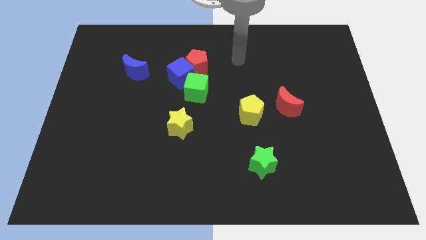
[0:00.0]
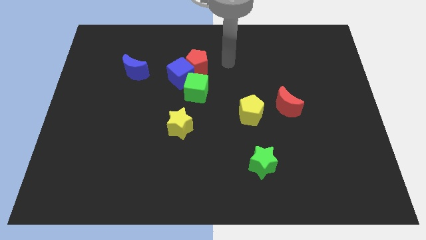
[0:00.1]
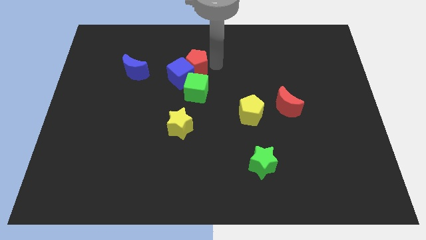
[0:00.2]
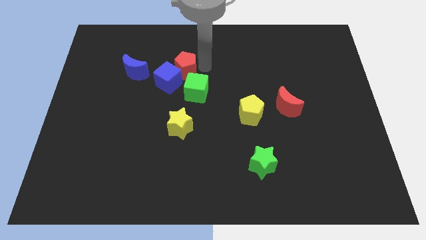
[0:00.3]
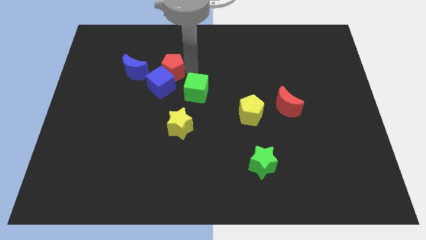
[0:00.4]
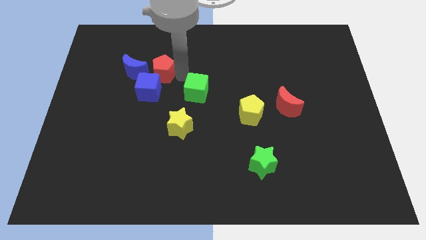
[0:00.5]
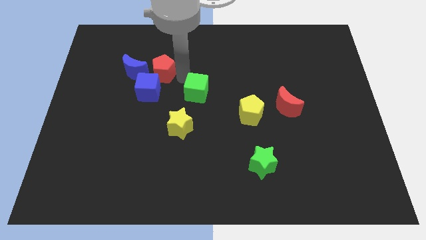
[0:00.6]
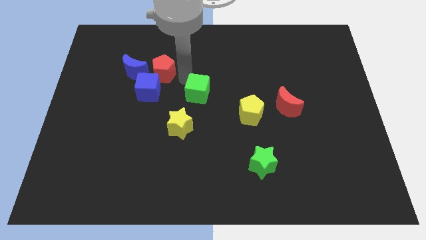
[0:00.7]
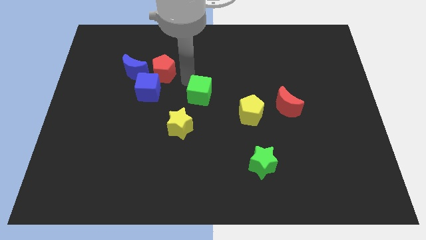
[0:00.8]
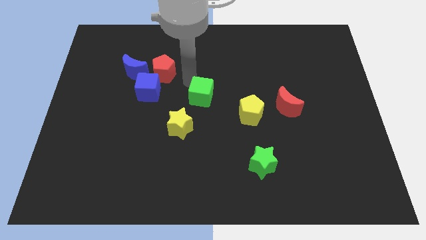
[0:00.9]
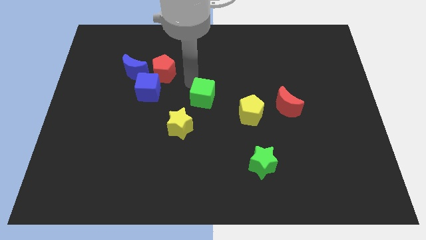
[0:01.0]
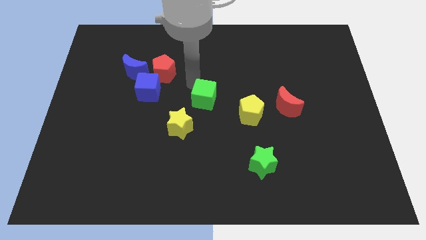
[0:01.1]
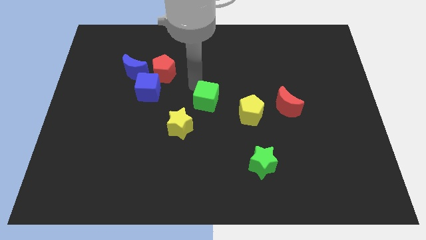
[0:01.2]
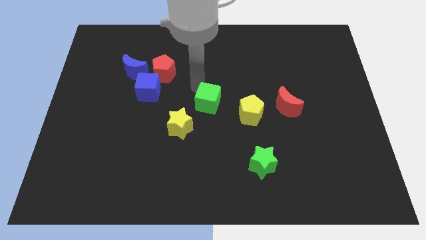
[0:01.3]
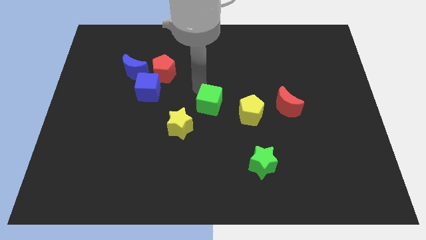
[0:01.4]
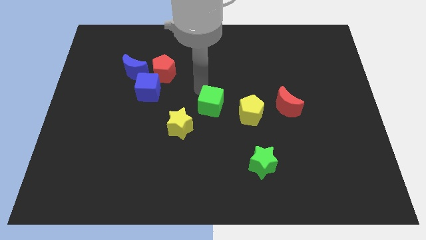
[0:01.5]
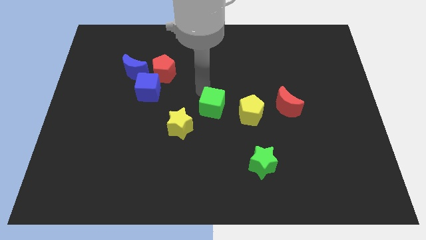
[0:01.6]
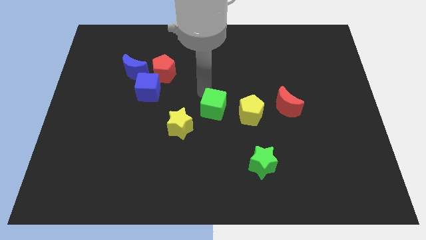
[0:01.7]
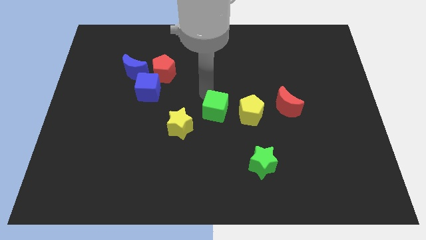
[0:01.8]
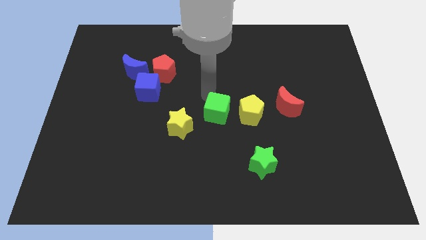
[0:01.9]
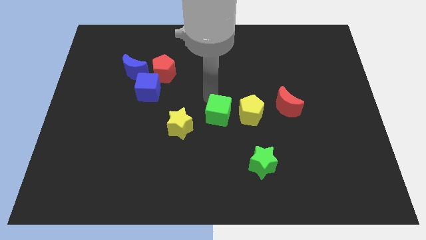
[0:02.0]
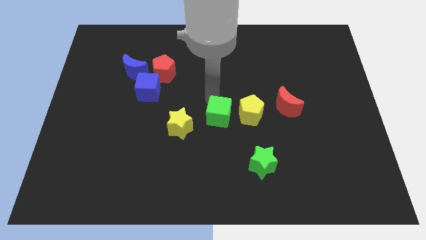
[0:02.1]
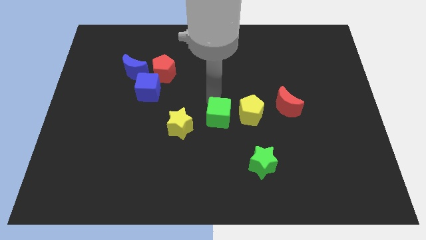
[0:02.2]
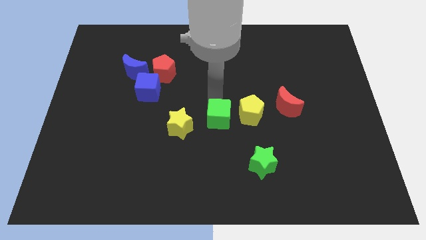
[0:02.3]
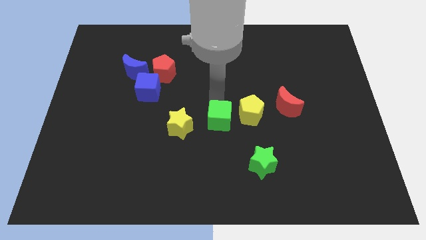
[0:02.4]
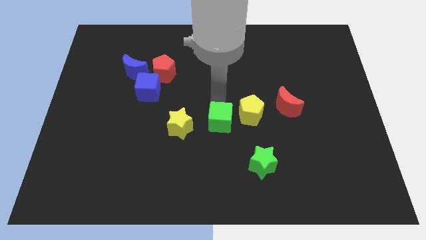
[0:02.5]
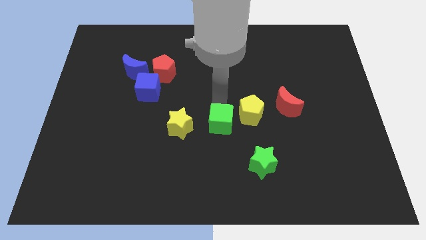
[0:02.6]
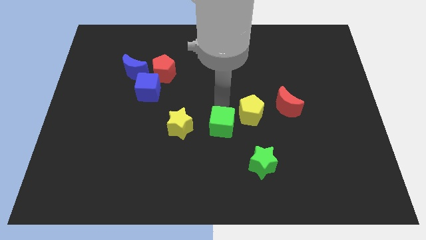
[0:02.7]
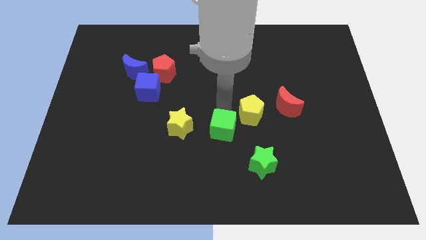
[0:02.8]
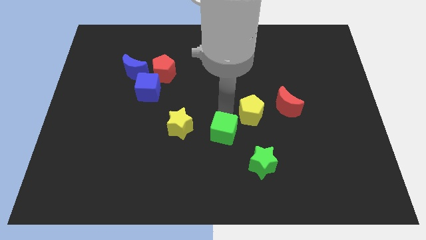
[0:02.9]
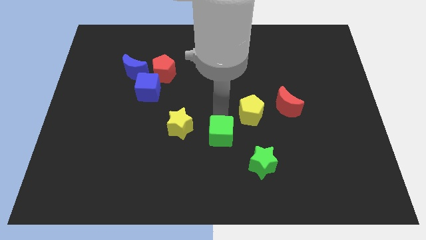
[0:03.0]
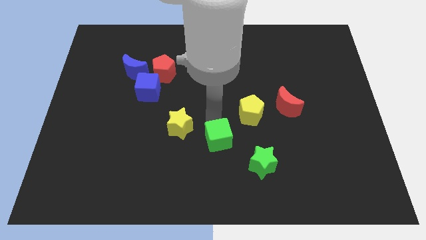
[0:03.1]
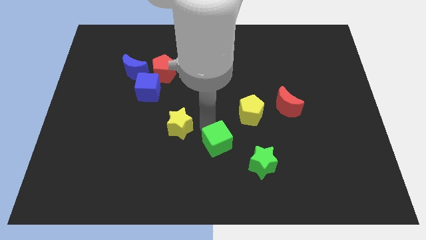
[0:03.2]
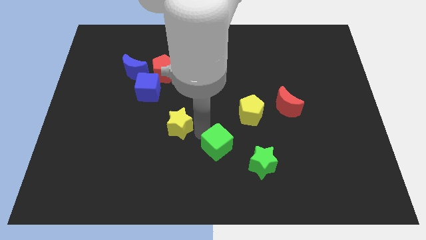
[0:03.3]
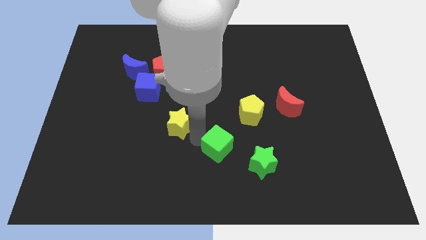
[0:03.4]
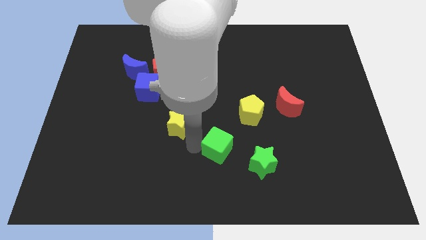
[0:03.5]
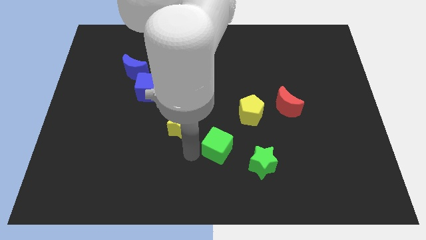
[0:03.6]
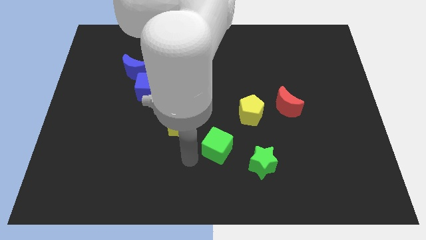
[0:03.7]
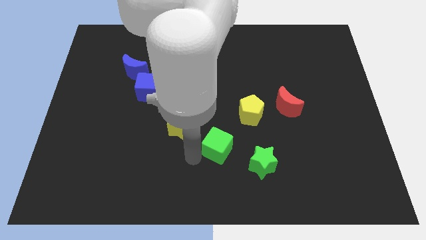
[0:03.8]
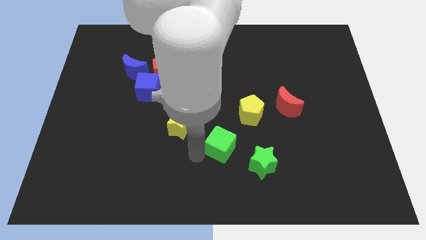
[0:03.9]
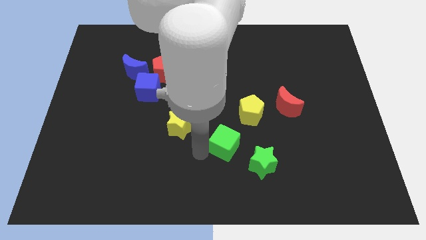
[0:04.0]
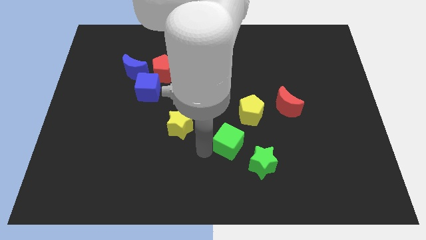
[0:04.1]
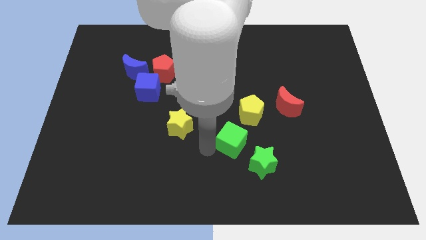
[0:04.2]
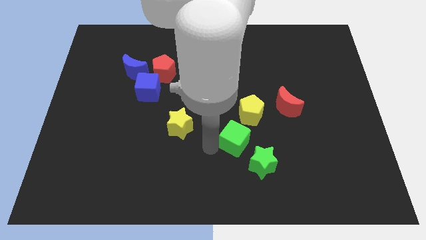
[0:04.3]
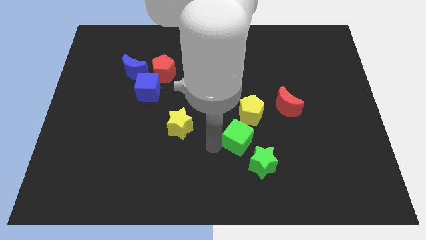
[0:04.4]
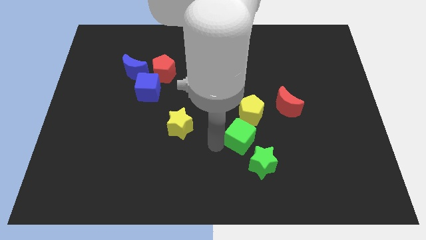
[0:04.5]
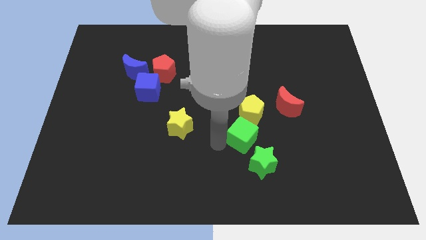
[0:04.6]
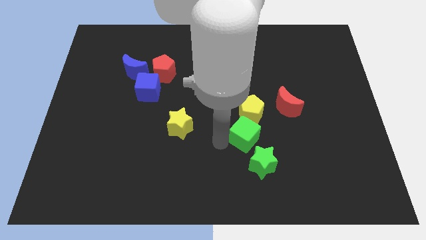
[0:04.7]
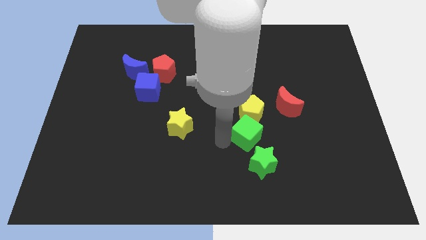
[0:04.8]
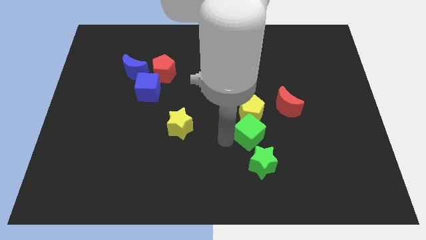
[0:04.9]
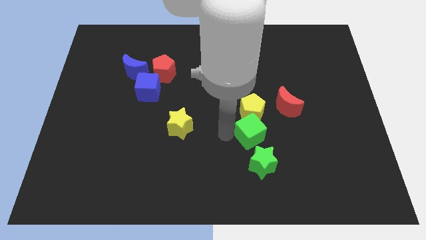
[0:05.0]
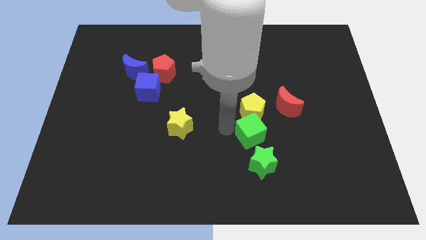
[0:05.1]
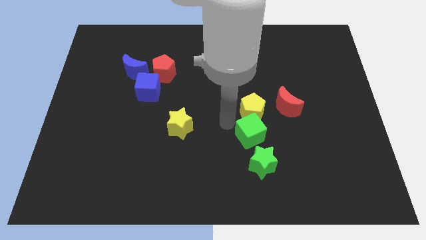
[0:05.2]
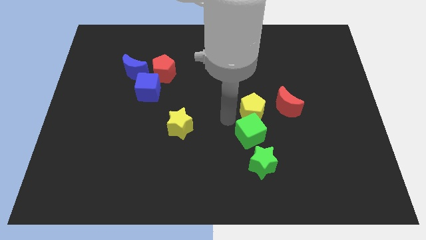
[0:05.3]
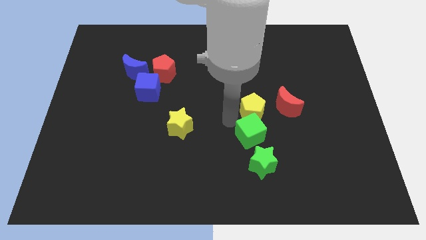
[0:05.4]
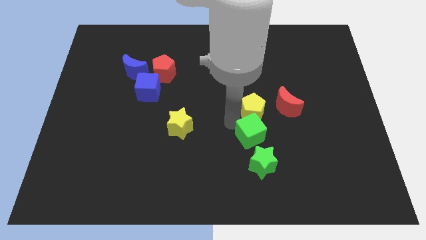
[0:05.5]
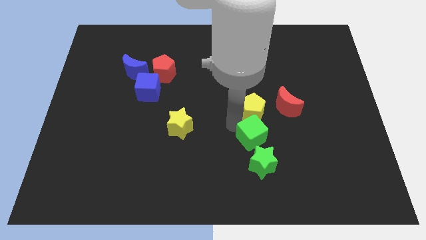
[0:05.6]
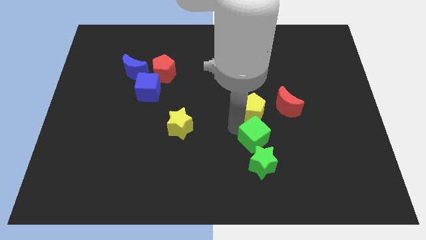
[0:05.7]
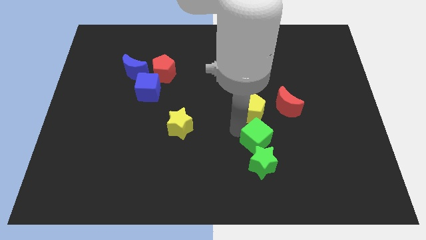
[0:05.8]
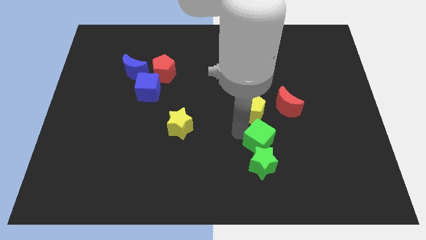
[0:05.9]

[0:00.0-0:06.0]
slide the green cube downwards and right

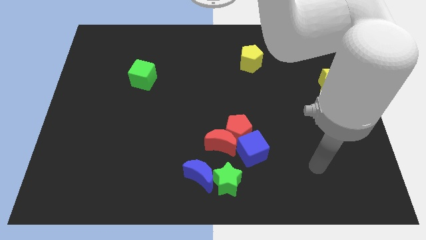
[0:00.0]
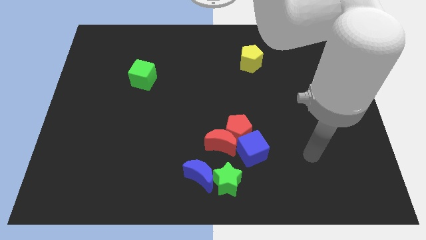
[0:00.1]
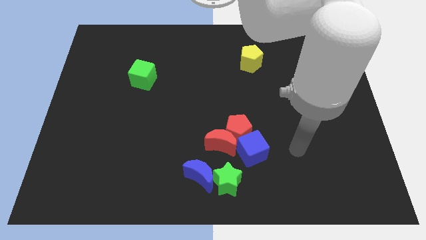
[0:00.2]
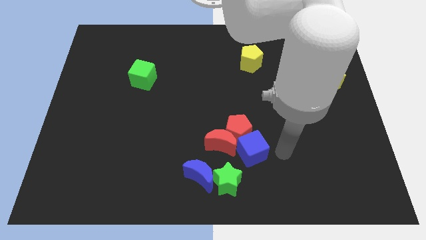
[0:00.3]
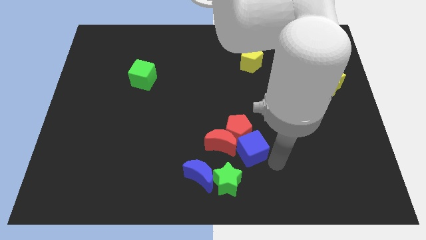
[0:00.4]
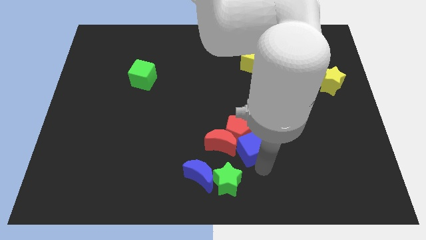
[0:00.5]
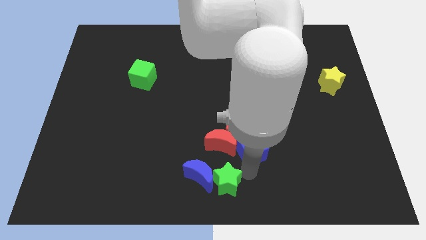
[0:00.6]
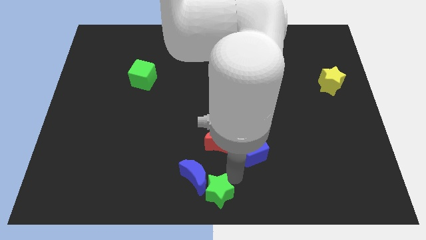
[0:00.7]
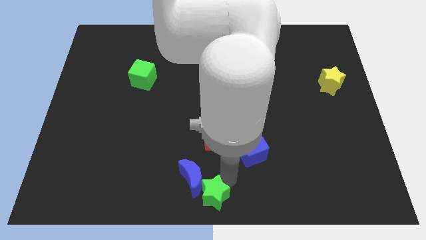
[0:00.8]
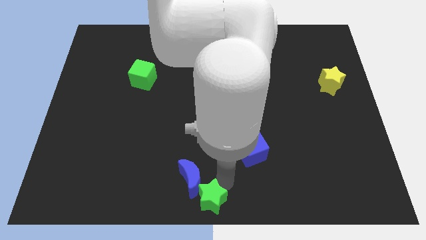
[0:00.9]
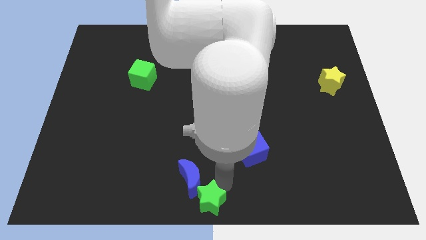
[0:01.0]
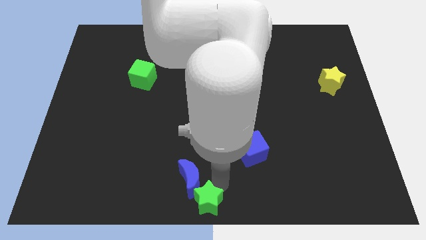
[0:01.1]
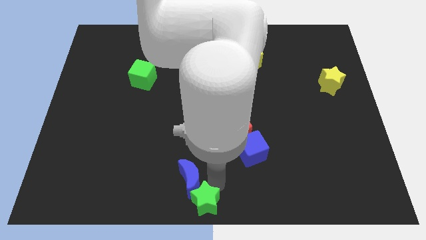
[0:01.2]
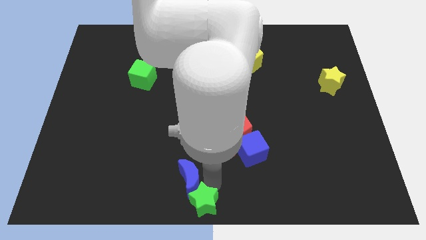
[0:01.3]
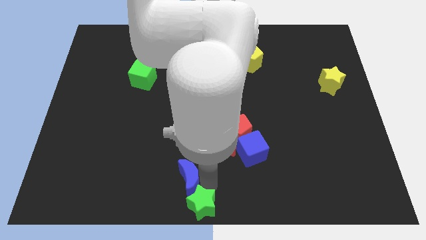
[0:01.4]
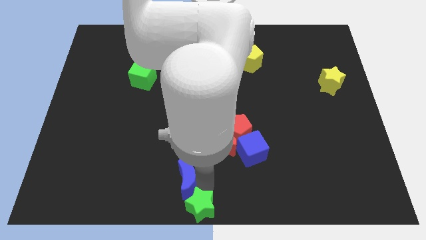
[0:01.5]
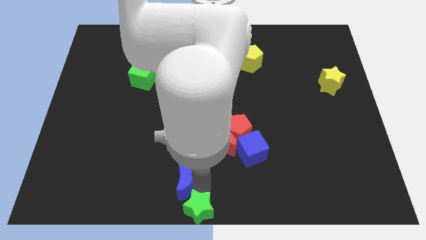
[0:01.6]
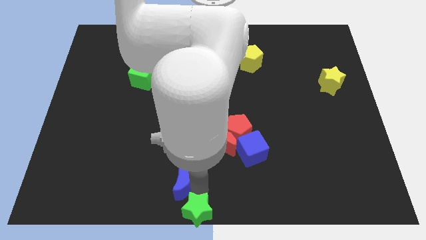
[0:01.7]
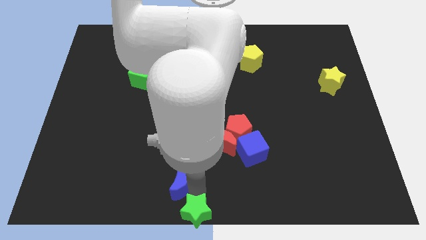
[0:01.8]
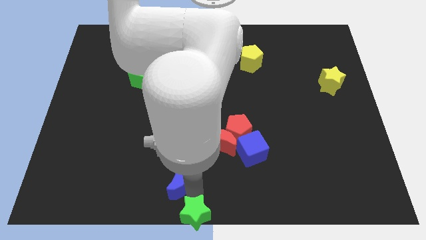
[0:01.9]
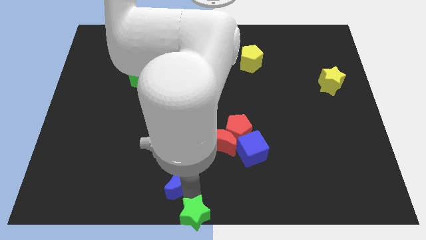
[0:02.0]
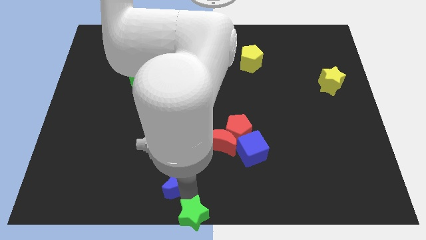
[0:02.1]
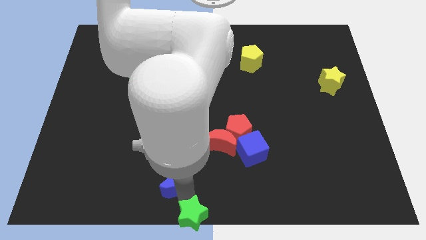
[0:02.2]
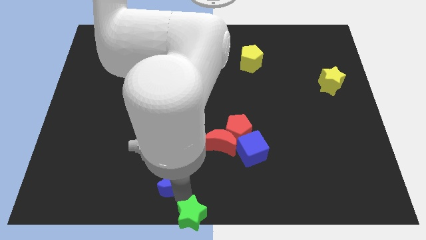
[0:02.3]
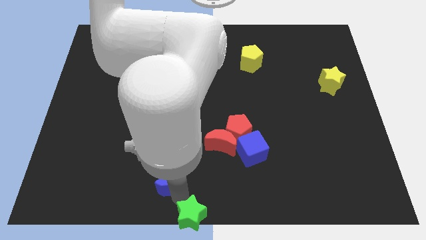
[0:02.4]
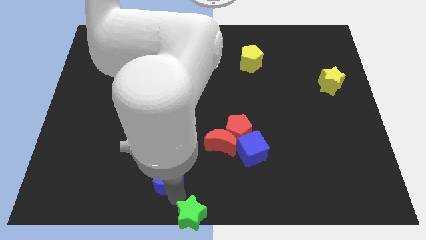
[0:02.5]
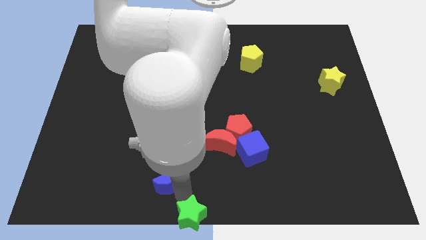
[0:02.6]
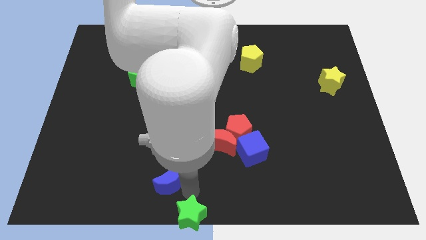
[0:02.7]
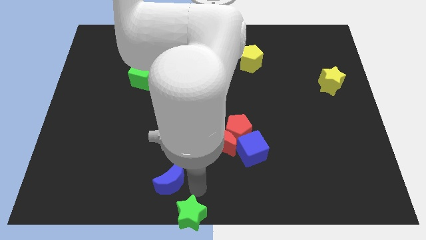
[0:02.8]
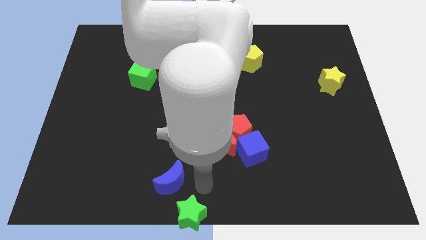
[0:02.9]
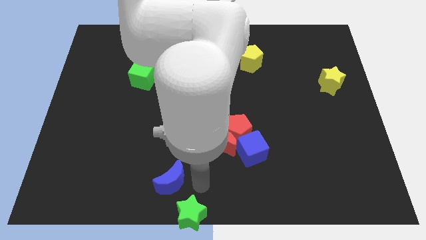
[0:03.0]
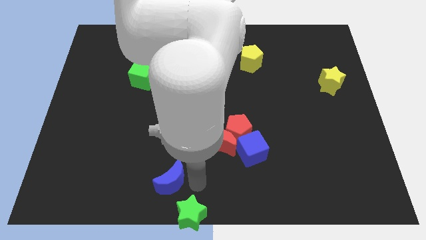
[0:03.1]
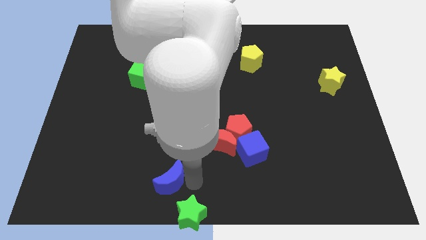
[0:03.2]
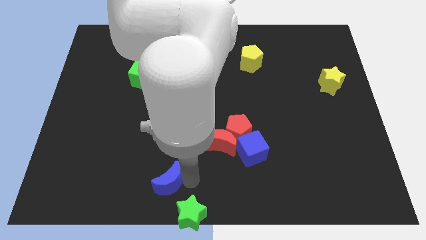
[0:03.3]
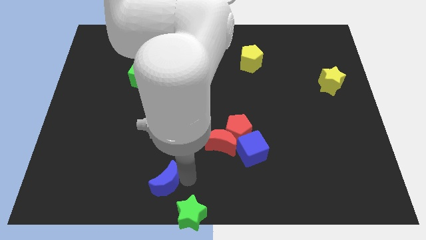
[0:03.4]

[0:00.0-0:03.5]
move the blue moon to the left a bit
